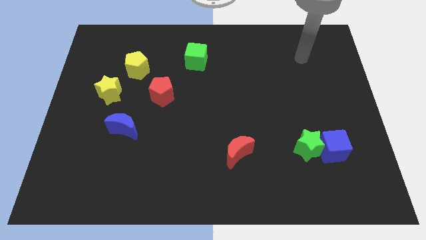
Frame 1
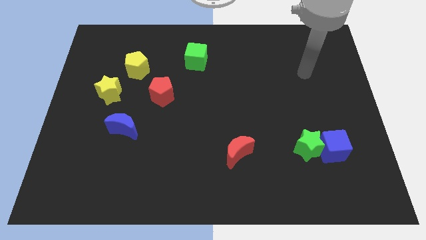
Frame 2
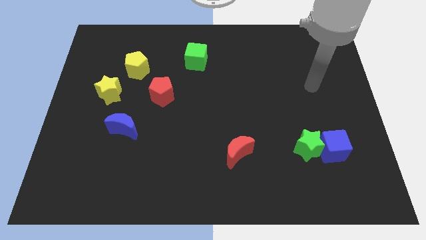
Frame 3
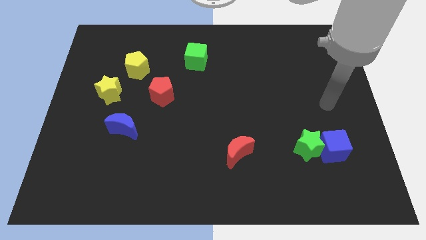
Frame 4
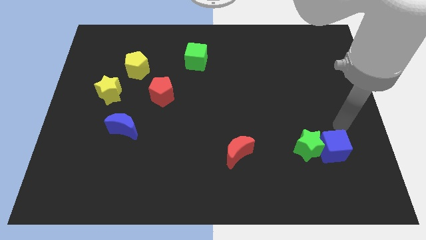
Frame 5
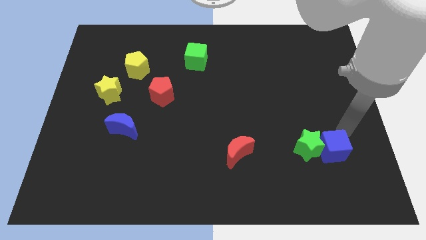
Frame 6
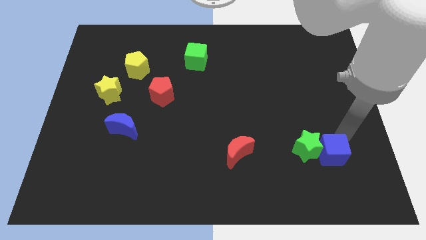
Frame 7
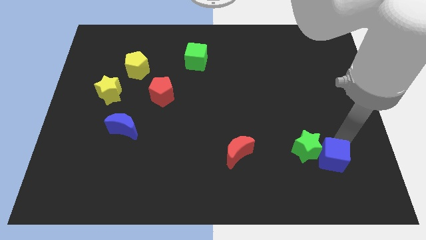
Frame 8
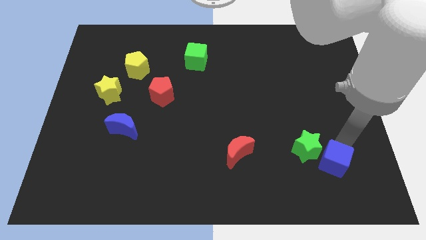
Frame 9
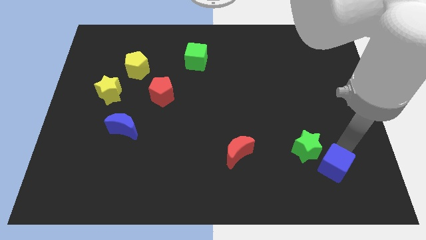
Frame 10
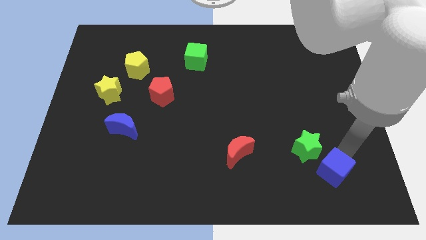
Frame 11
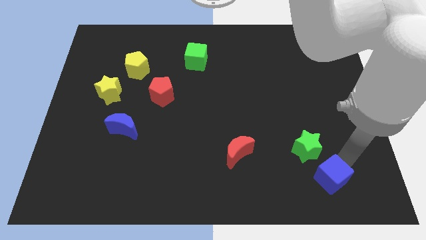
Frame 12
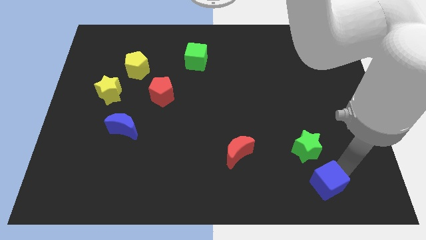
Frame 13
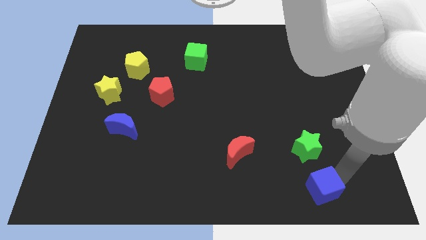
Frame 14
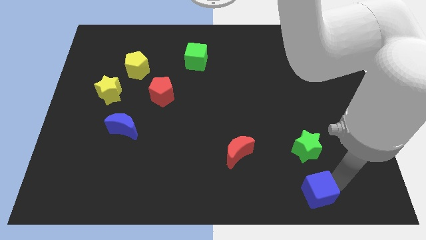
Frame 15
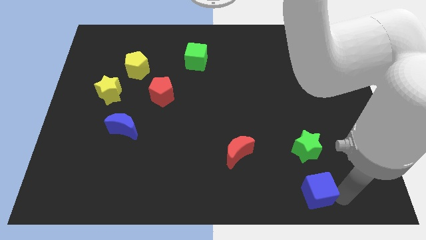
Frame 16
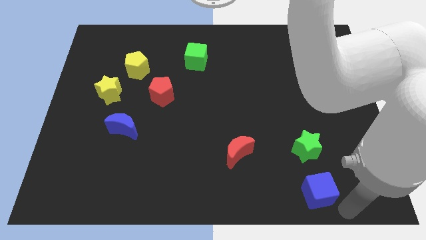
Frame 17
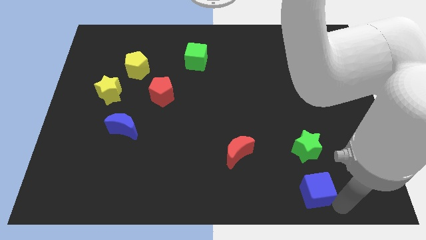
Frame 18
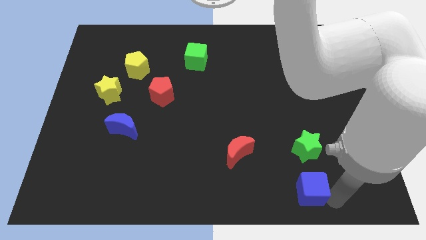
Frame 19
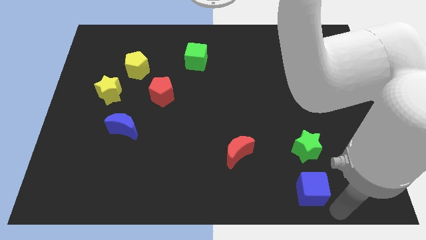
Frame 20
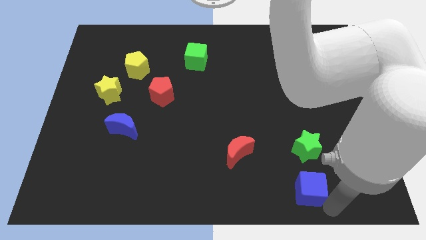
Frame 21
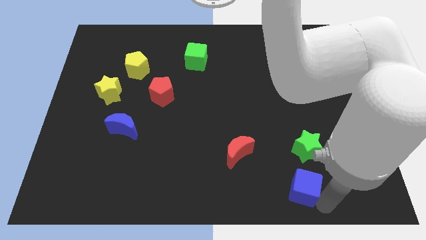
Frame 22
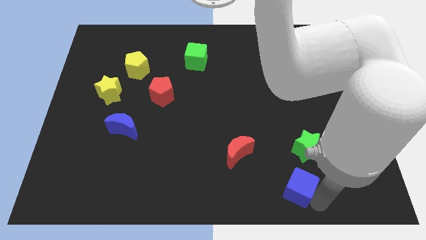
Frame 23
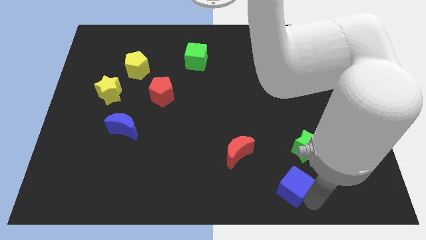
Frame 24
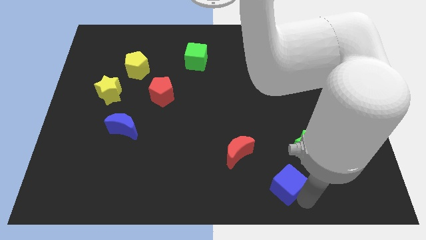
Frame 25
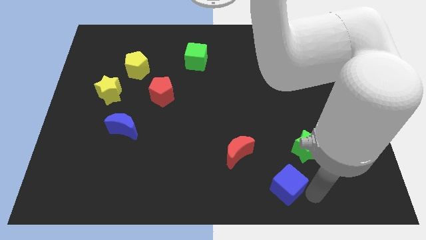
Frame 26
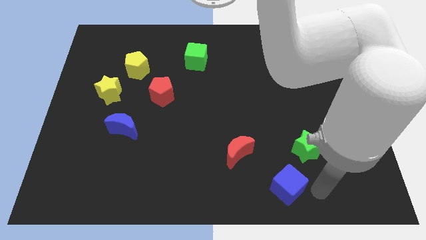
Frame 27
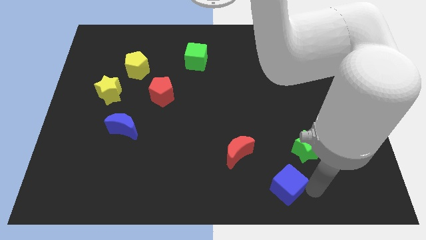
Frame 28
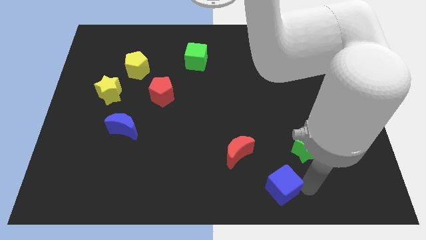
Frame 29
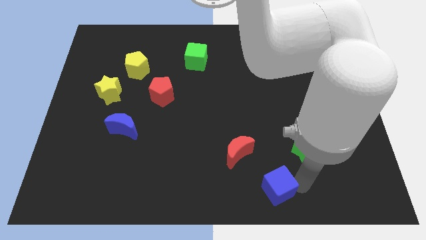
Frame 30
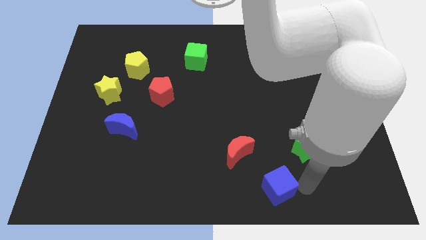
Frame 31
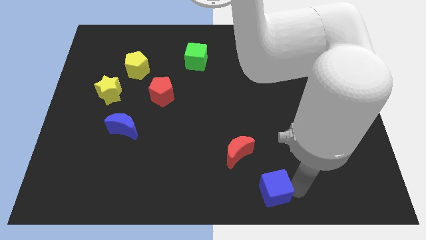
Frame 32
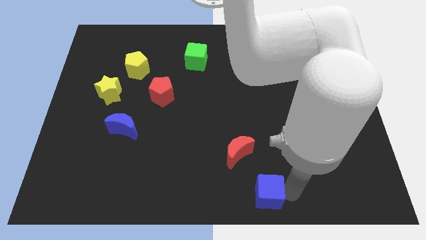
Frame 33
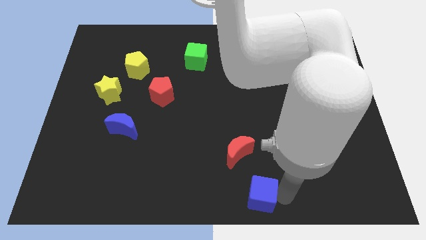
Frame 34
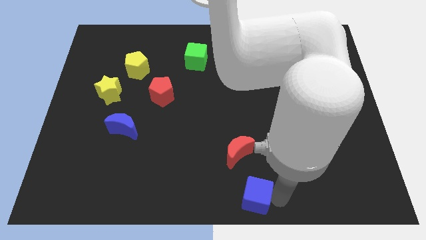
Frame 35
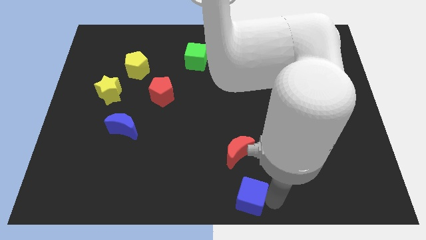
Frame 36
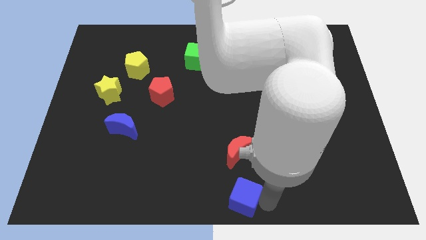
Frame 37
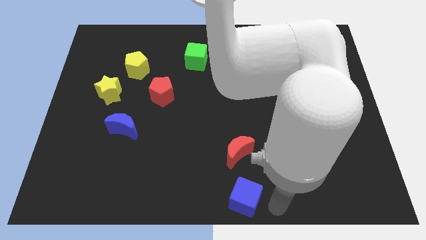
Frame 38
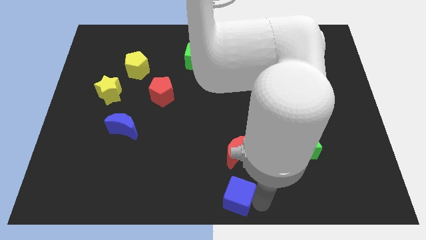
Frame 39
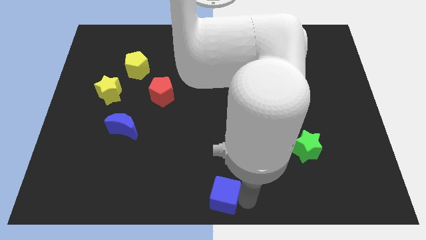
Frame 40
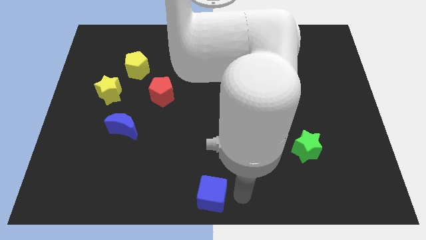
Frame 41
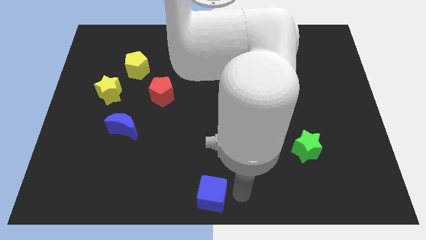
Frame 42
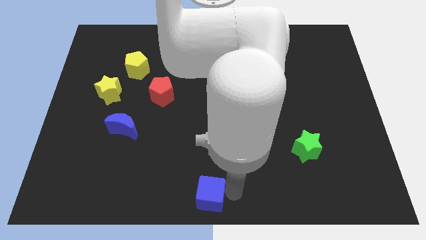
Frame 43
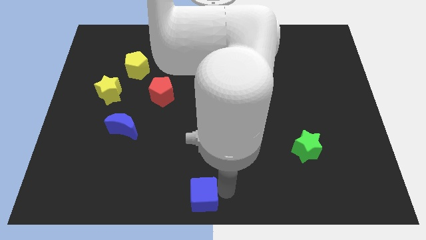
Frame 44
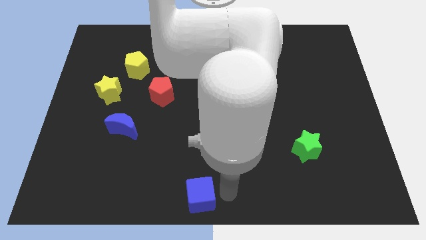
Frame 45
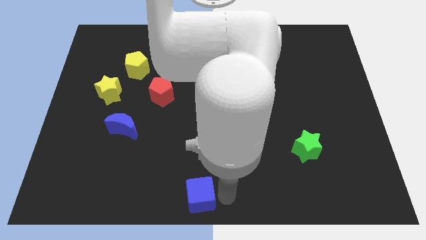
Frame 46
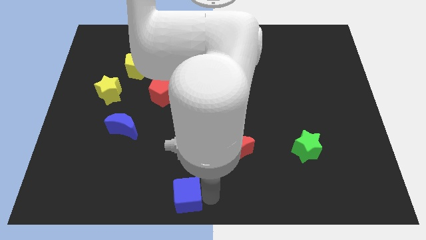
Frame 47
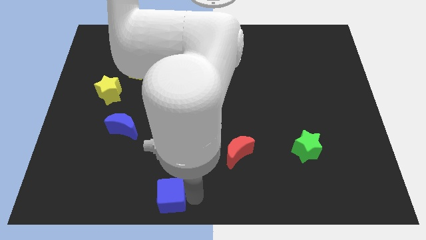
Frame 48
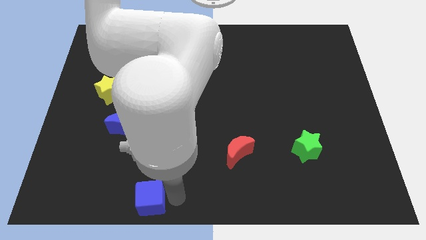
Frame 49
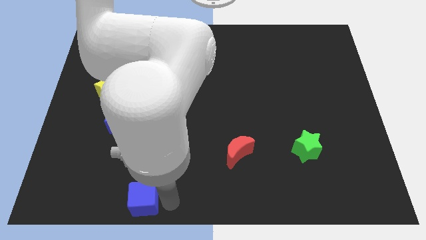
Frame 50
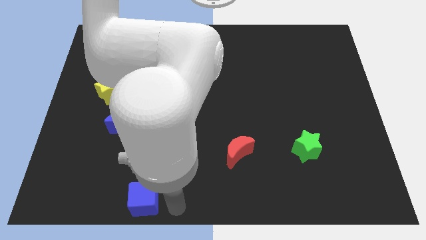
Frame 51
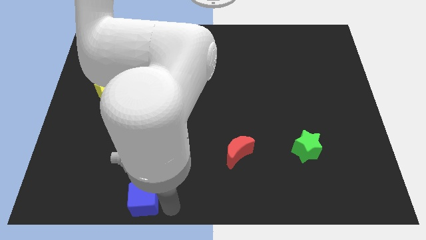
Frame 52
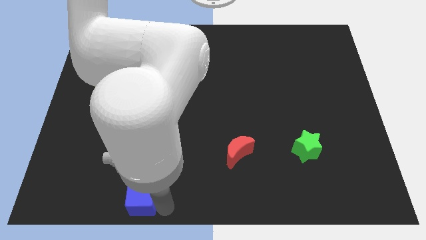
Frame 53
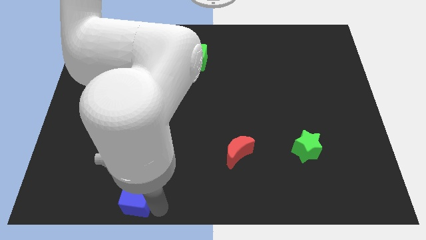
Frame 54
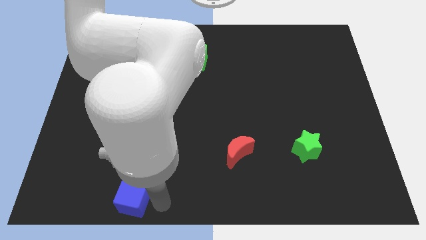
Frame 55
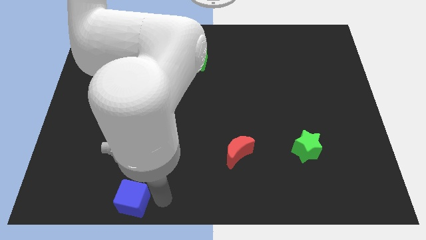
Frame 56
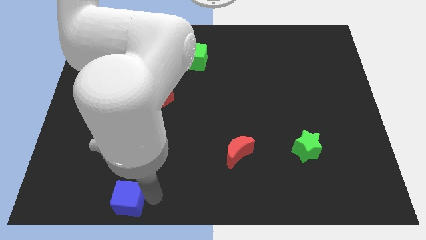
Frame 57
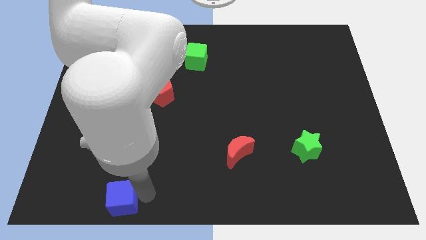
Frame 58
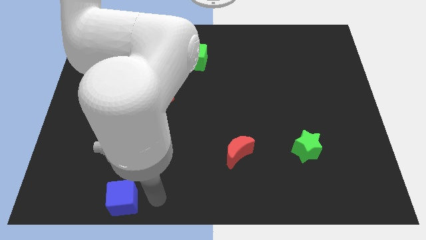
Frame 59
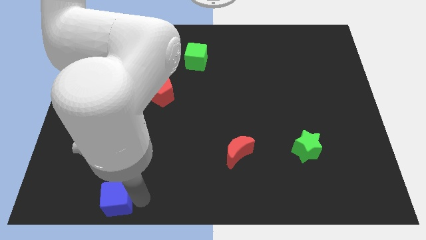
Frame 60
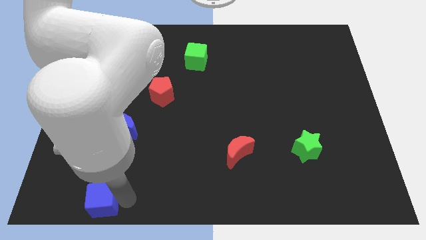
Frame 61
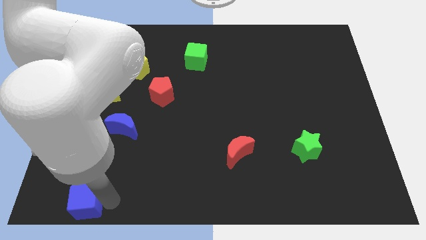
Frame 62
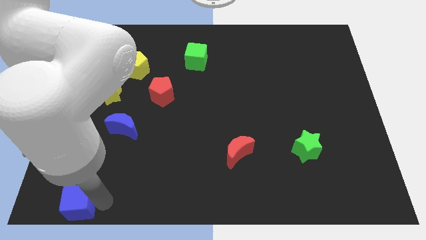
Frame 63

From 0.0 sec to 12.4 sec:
put the blue cube to the lower left corner
